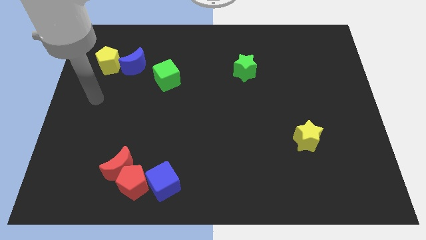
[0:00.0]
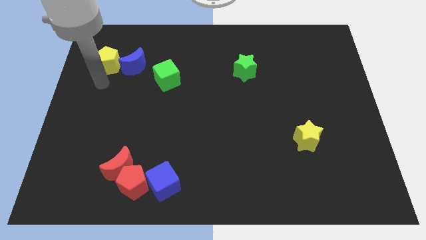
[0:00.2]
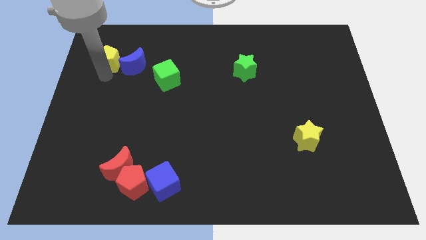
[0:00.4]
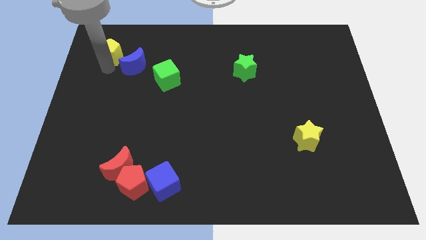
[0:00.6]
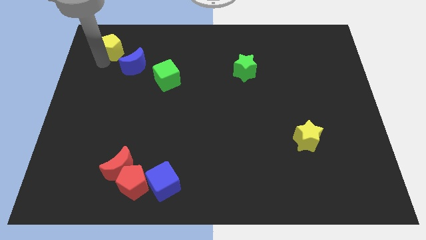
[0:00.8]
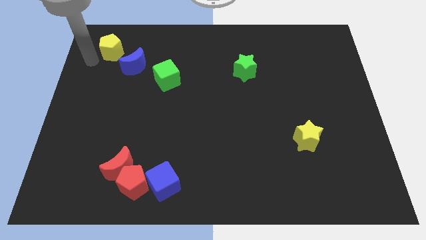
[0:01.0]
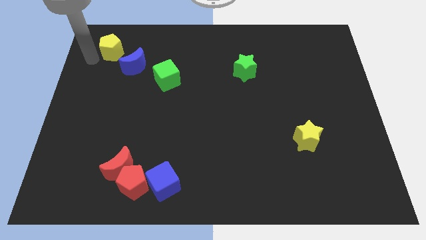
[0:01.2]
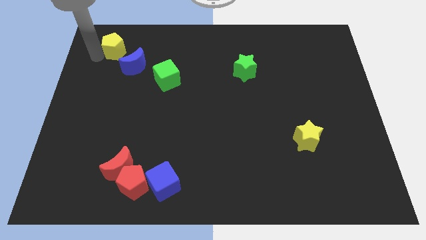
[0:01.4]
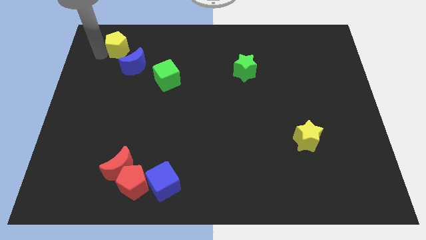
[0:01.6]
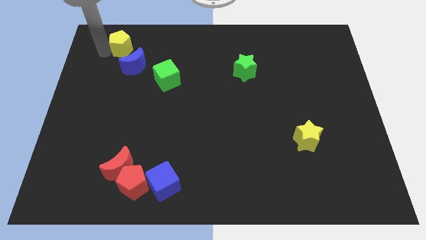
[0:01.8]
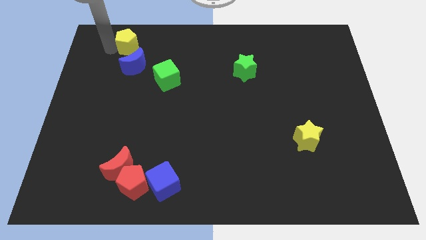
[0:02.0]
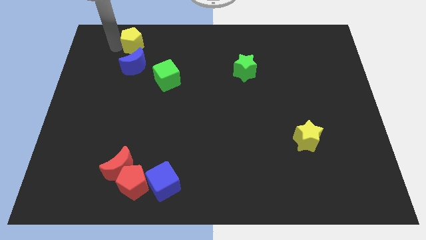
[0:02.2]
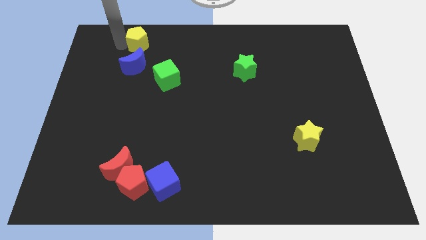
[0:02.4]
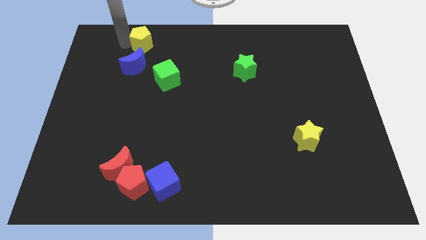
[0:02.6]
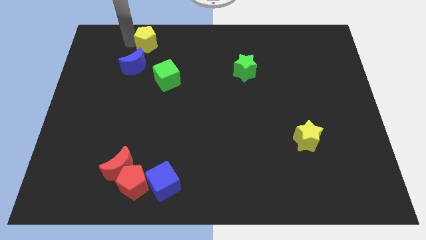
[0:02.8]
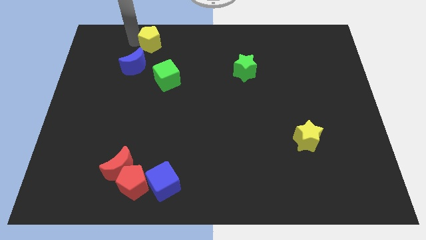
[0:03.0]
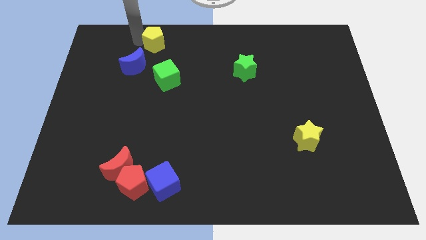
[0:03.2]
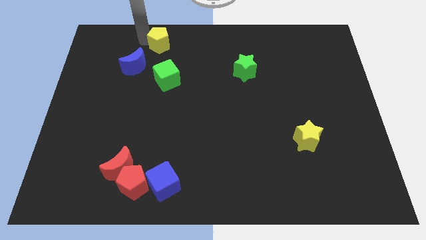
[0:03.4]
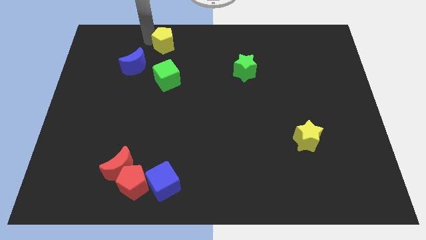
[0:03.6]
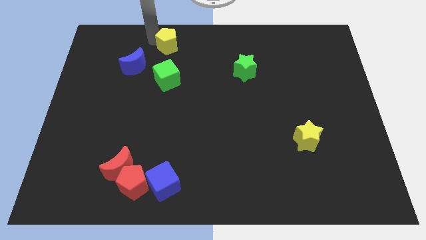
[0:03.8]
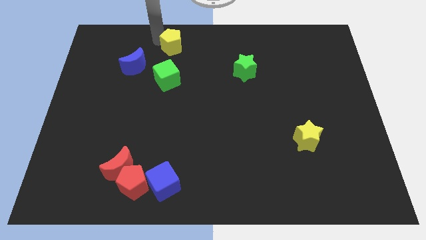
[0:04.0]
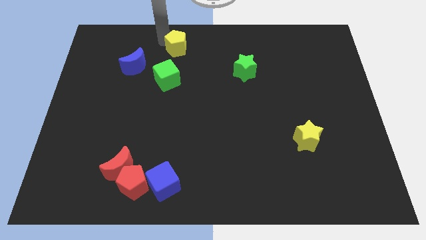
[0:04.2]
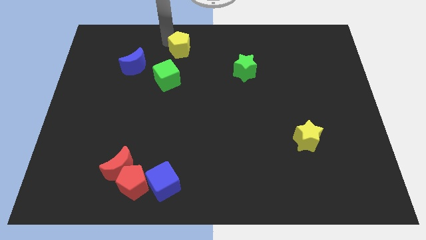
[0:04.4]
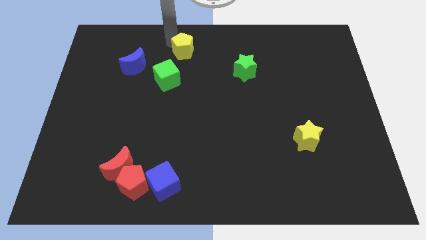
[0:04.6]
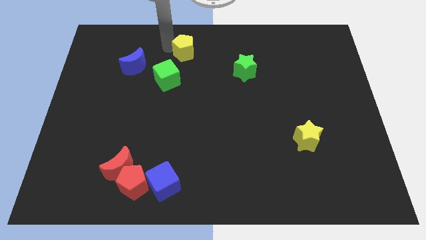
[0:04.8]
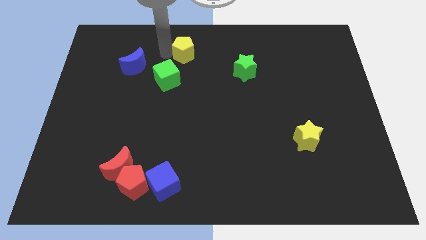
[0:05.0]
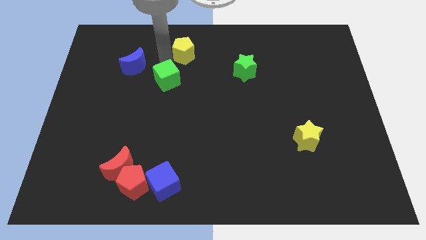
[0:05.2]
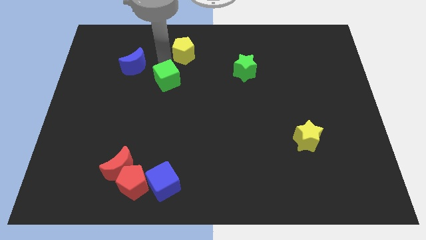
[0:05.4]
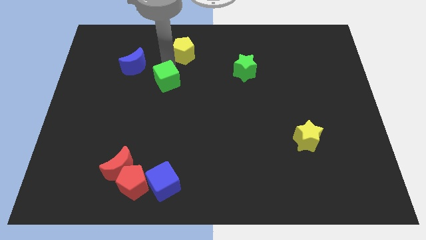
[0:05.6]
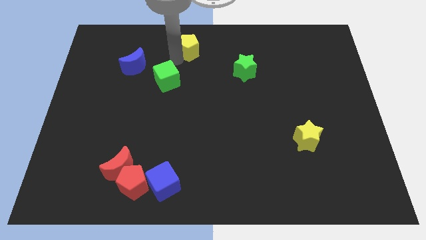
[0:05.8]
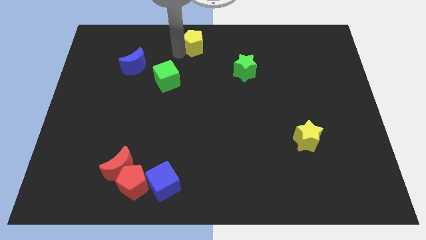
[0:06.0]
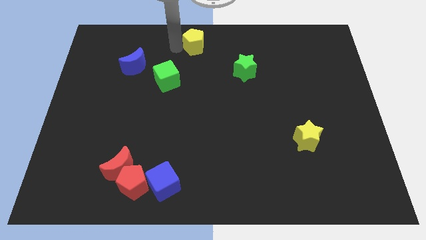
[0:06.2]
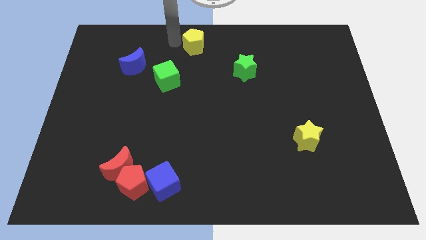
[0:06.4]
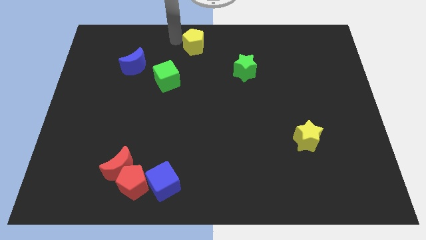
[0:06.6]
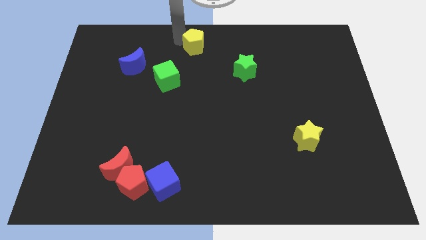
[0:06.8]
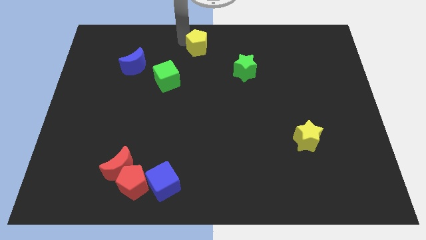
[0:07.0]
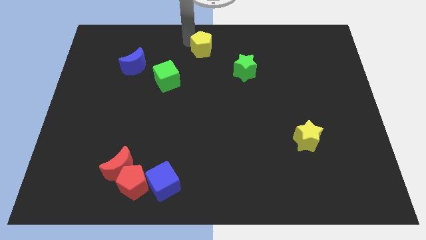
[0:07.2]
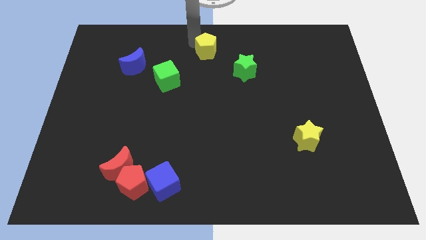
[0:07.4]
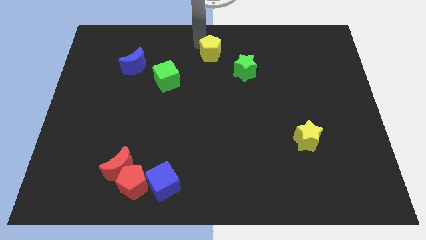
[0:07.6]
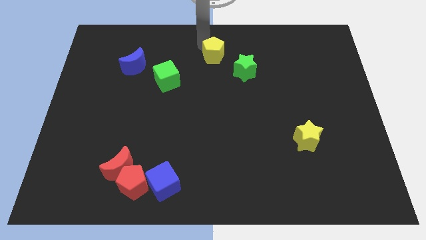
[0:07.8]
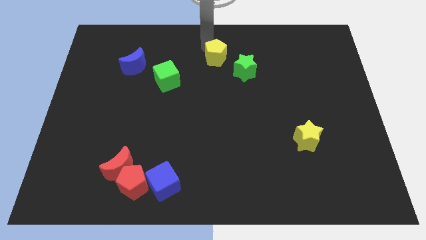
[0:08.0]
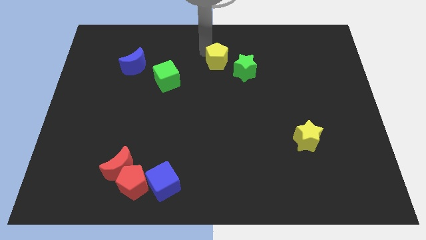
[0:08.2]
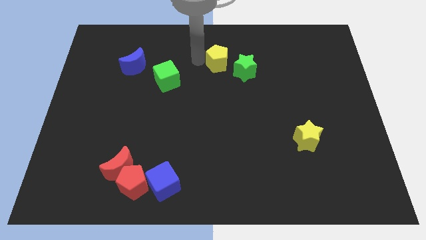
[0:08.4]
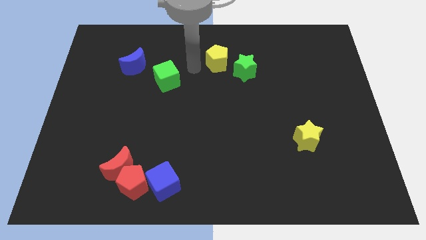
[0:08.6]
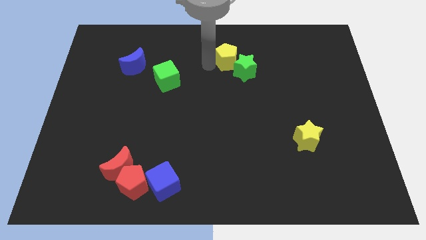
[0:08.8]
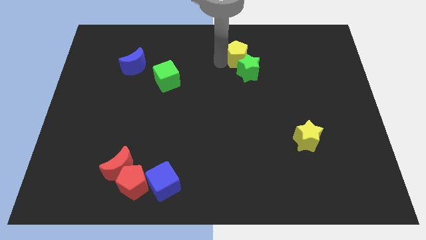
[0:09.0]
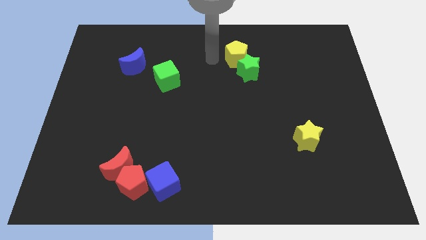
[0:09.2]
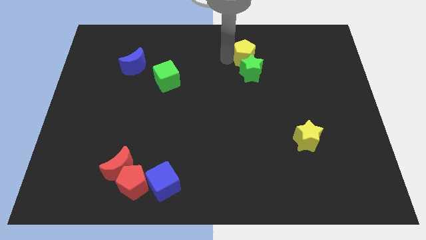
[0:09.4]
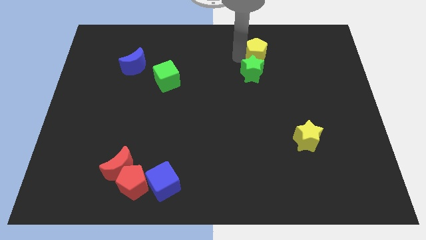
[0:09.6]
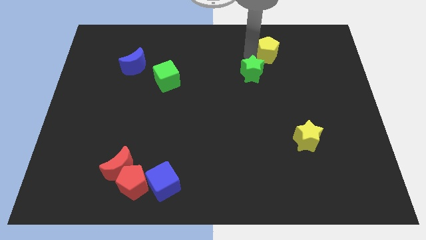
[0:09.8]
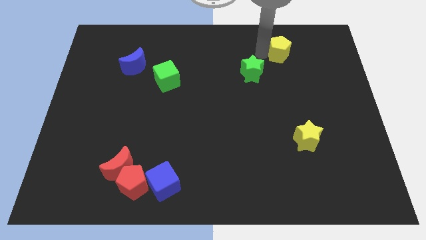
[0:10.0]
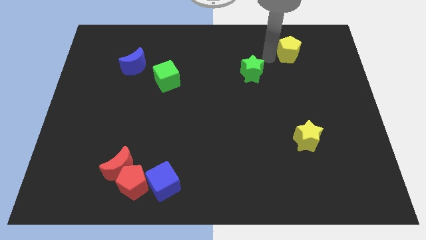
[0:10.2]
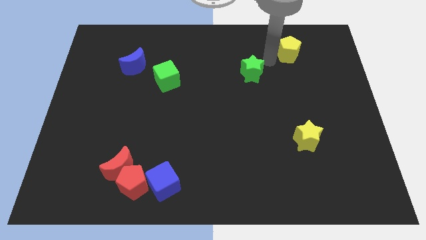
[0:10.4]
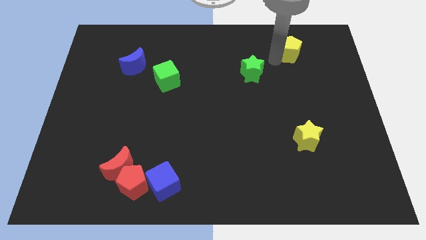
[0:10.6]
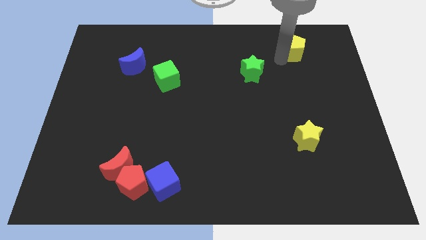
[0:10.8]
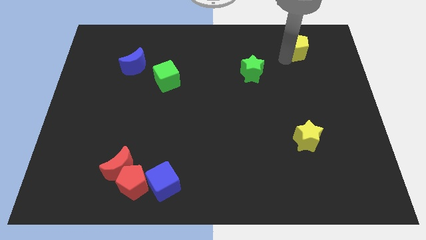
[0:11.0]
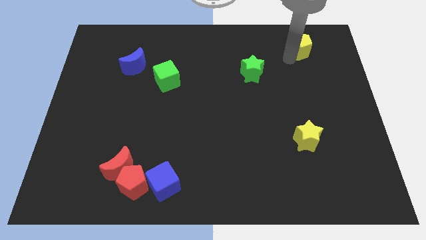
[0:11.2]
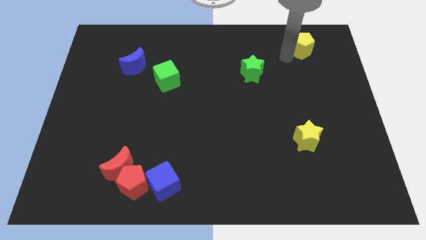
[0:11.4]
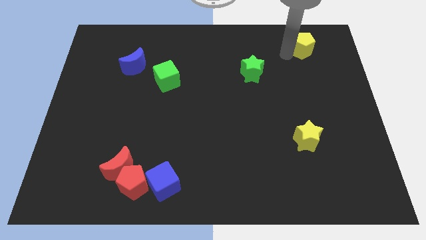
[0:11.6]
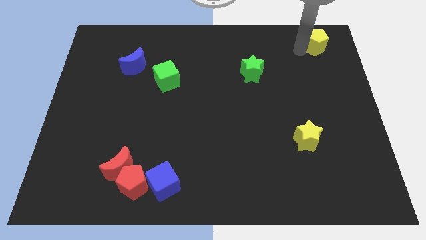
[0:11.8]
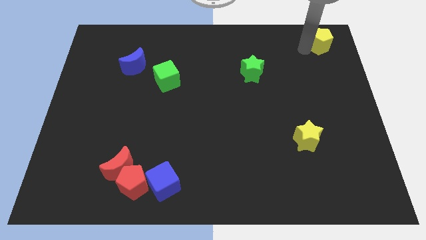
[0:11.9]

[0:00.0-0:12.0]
slide the yellow pentagon to the top right

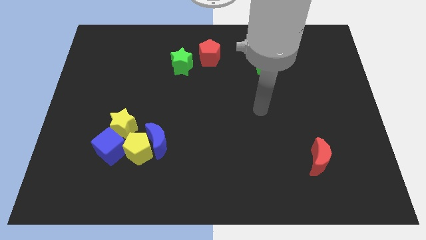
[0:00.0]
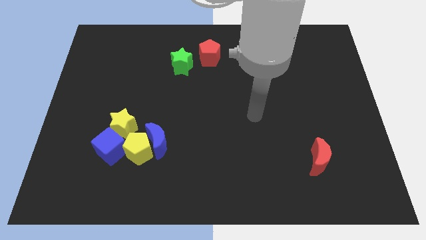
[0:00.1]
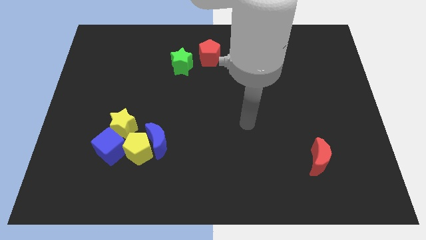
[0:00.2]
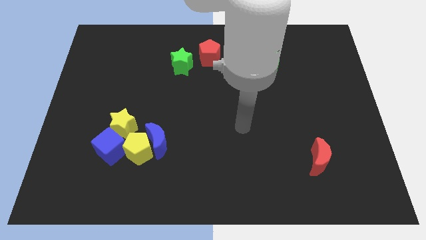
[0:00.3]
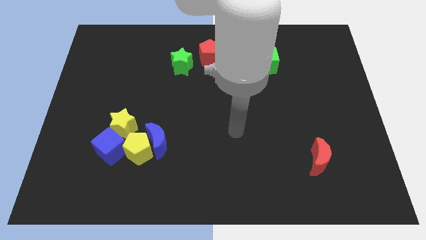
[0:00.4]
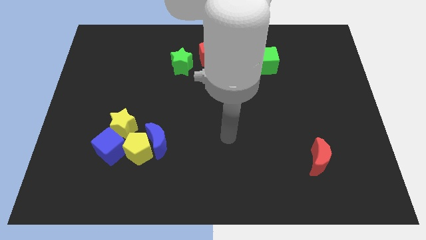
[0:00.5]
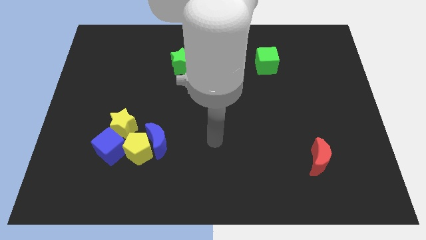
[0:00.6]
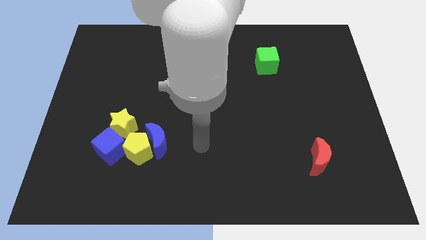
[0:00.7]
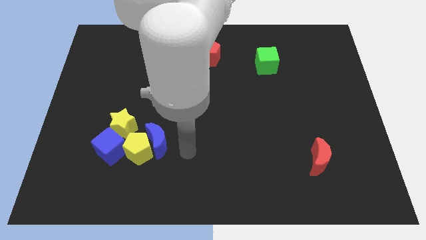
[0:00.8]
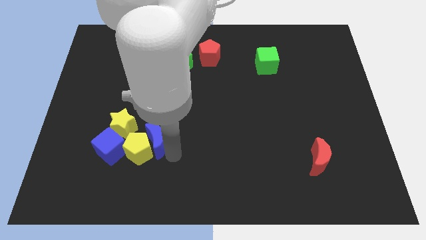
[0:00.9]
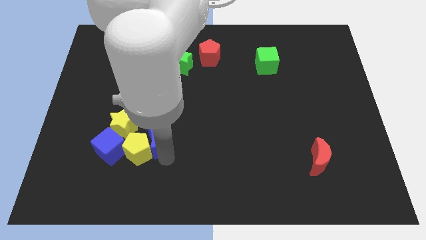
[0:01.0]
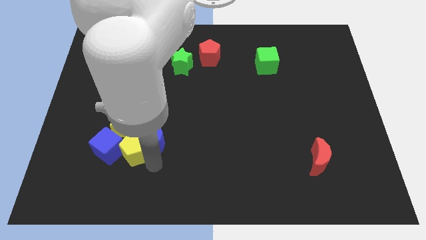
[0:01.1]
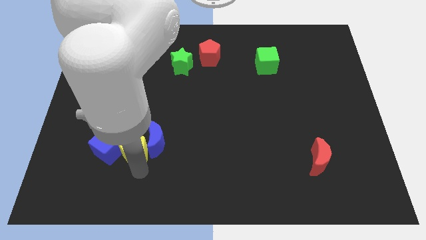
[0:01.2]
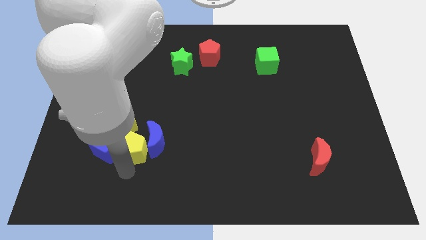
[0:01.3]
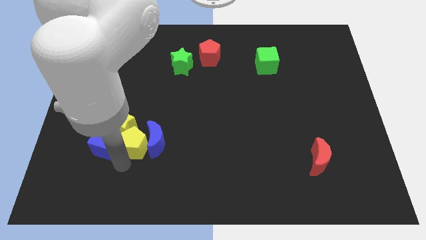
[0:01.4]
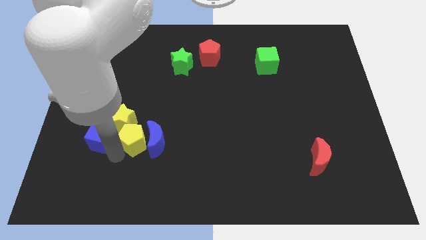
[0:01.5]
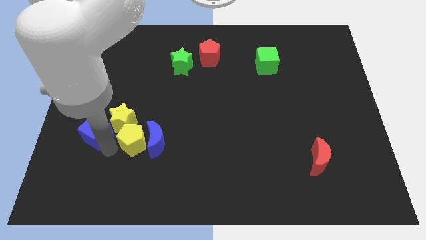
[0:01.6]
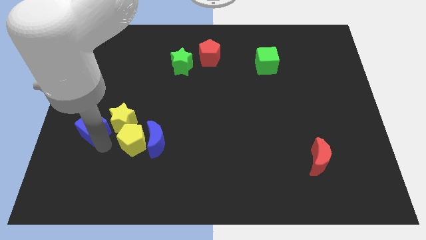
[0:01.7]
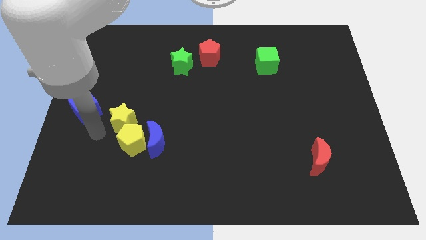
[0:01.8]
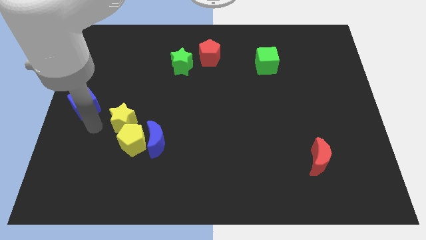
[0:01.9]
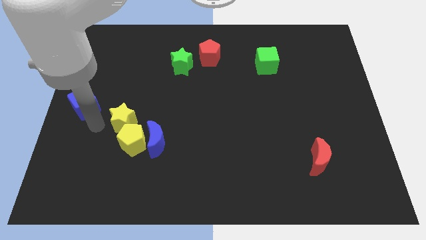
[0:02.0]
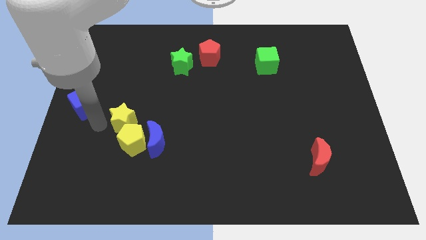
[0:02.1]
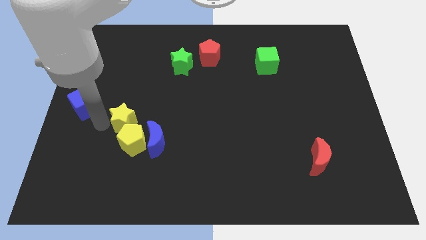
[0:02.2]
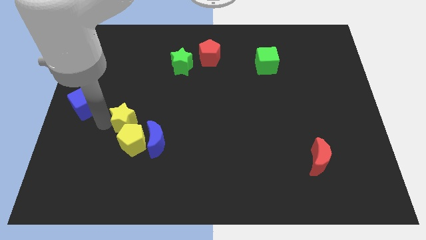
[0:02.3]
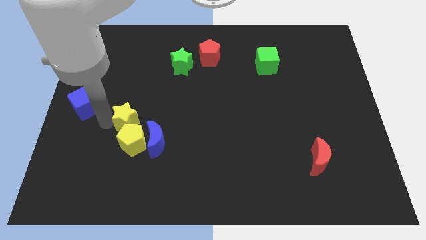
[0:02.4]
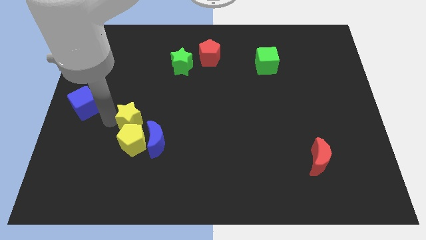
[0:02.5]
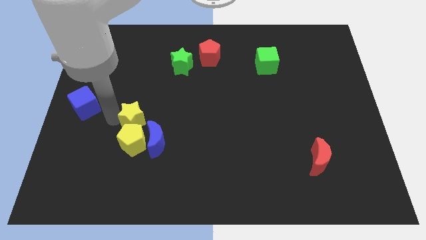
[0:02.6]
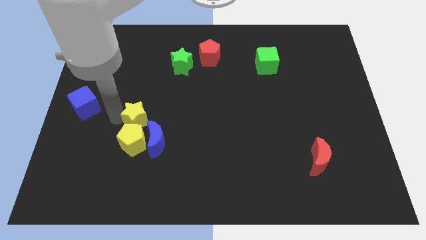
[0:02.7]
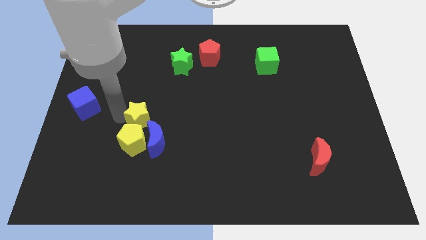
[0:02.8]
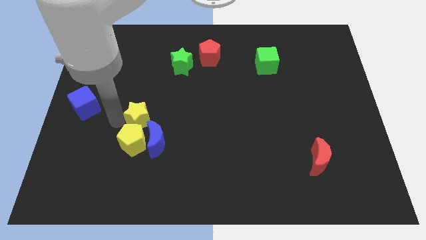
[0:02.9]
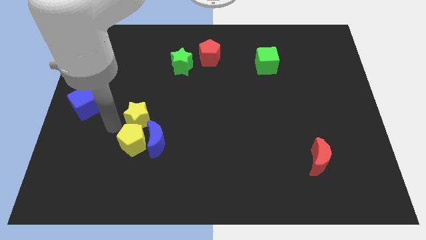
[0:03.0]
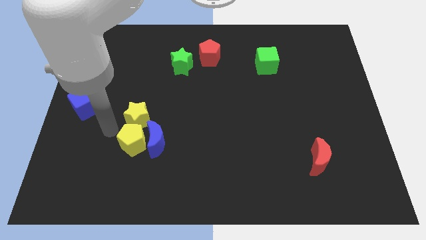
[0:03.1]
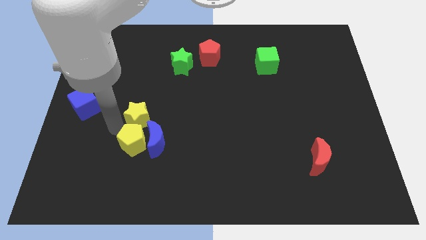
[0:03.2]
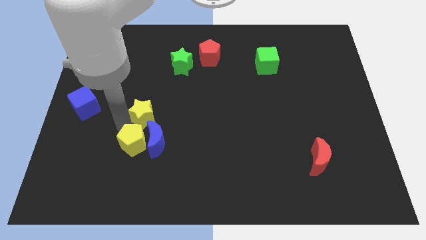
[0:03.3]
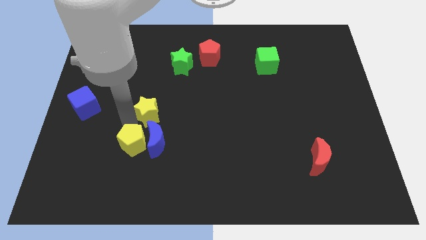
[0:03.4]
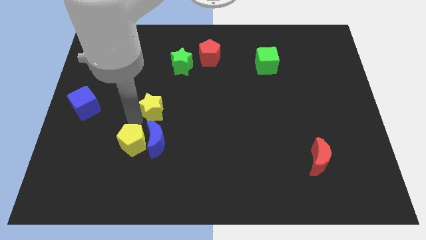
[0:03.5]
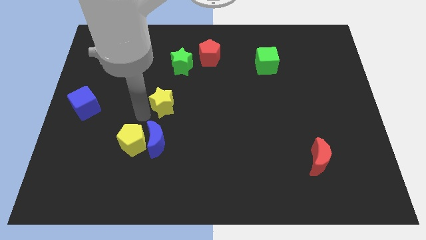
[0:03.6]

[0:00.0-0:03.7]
slide the yellow star to the middle
